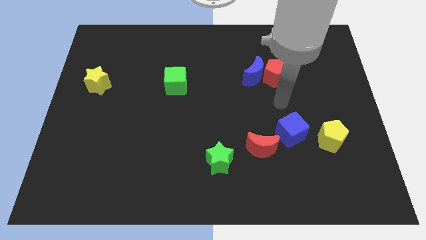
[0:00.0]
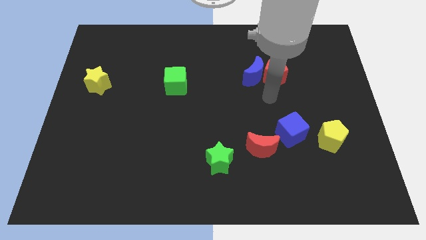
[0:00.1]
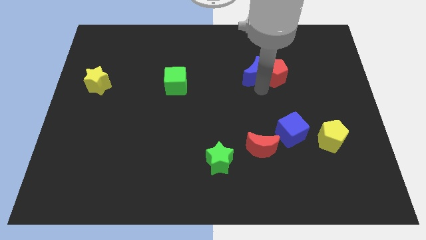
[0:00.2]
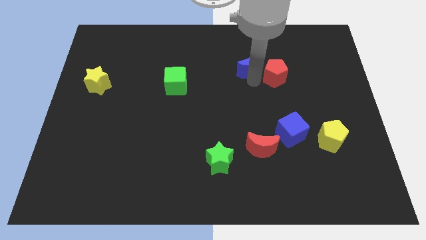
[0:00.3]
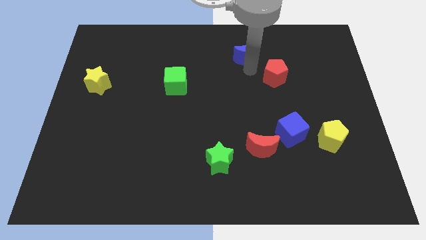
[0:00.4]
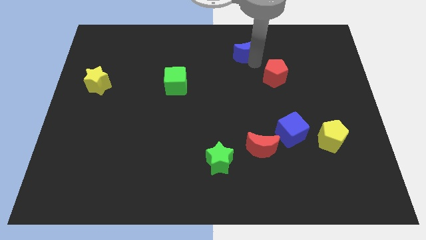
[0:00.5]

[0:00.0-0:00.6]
pull the red pentagon apart from the blue moon

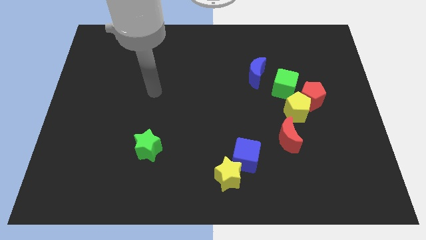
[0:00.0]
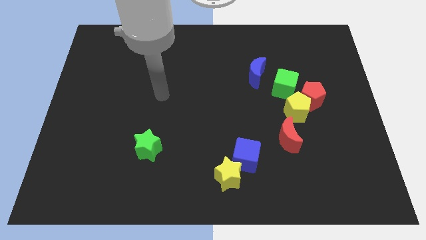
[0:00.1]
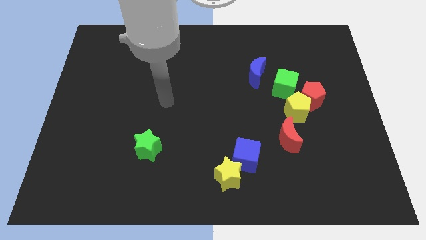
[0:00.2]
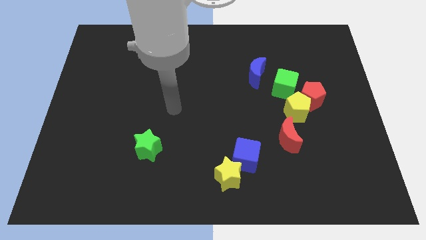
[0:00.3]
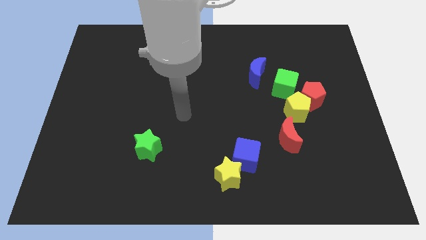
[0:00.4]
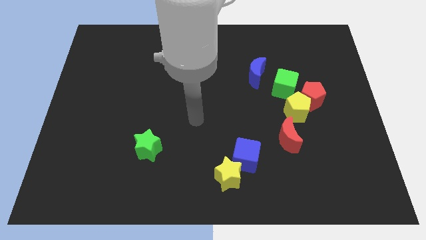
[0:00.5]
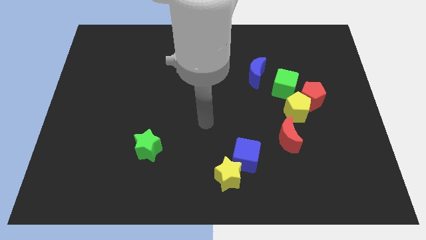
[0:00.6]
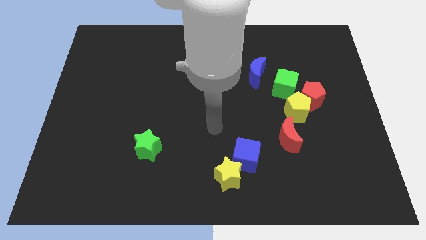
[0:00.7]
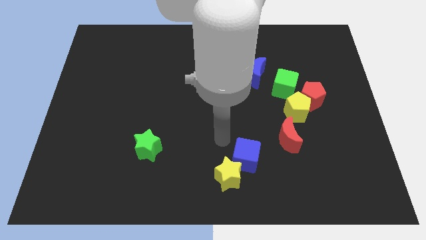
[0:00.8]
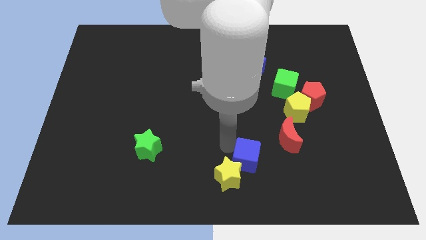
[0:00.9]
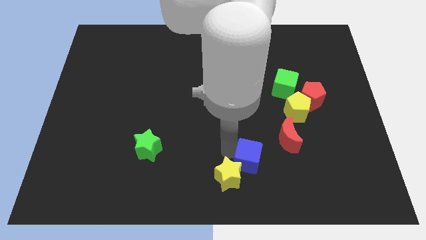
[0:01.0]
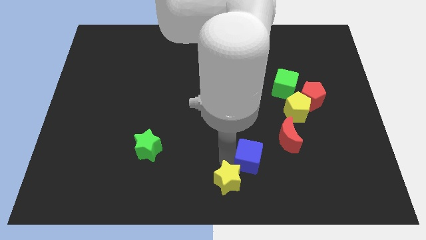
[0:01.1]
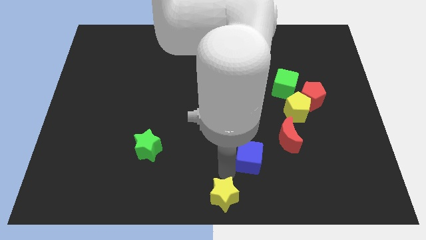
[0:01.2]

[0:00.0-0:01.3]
separate the blue cube from the yellow star

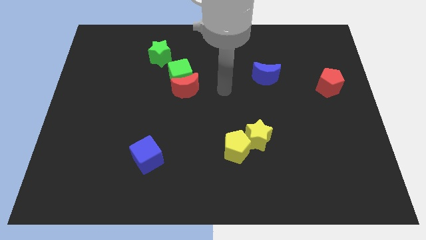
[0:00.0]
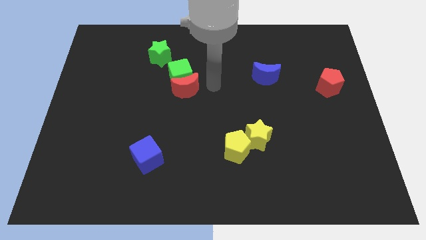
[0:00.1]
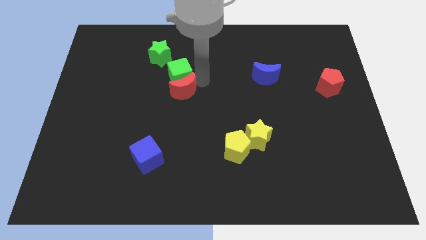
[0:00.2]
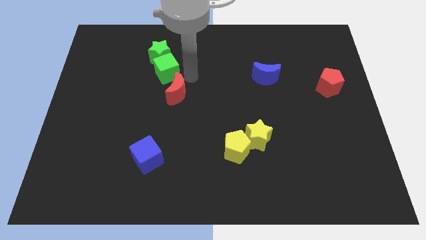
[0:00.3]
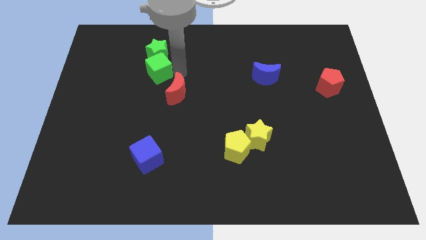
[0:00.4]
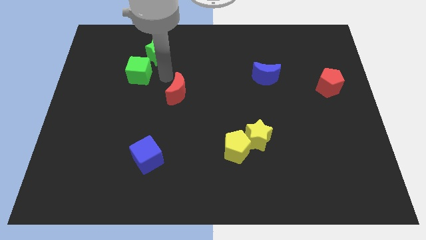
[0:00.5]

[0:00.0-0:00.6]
separate the red moon from the green cube

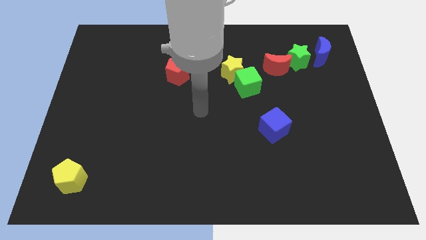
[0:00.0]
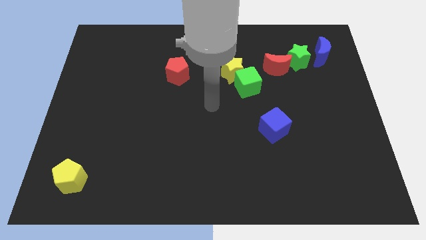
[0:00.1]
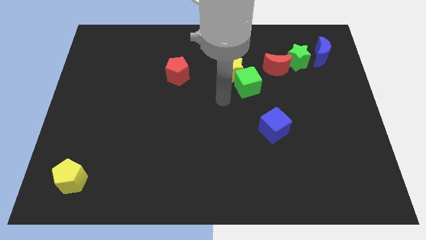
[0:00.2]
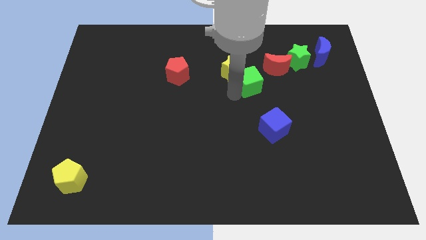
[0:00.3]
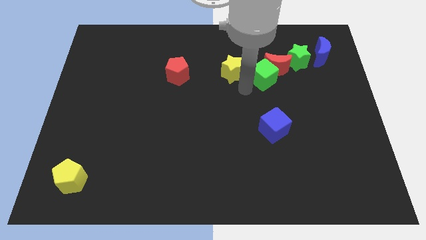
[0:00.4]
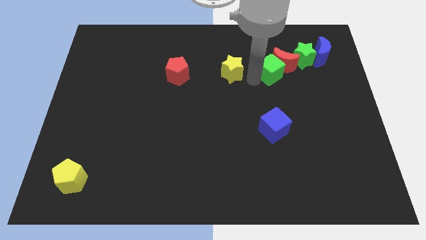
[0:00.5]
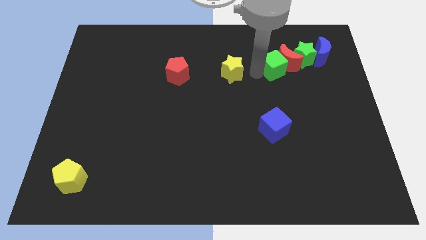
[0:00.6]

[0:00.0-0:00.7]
move the yellow star away from the green cube

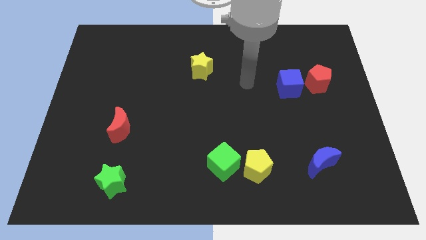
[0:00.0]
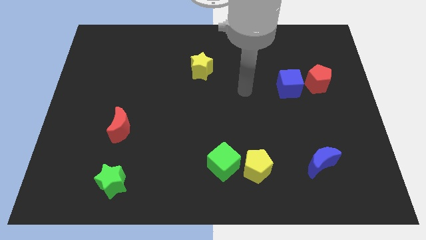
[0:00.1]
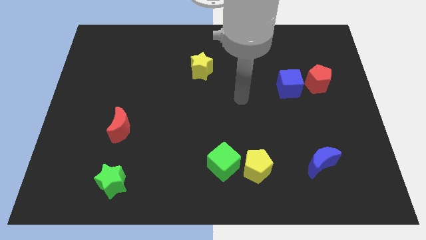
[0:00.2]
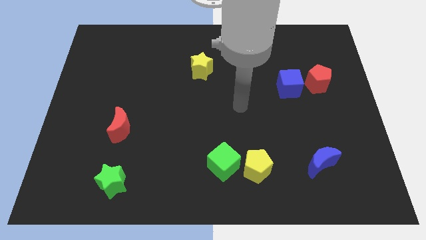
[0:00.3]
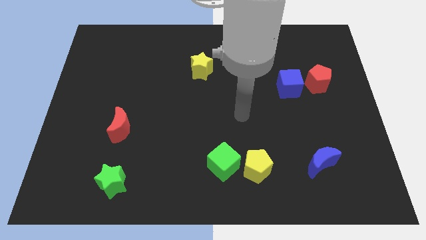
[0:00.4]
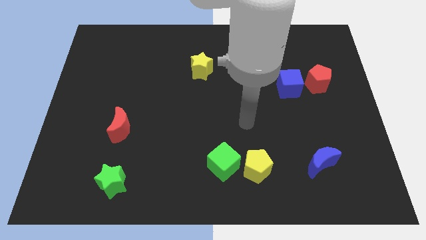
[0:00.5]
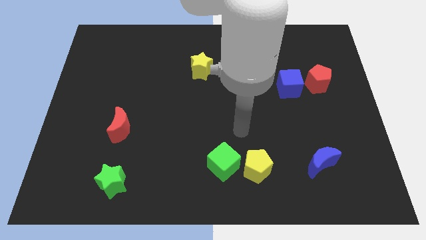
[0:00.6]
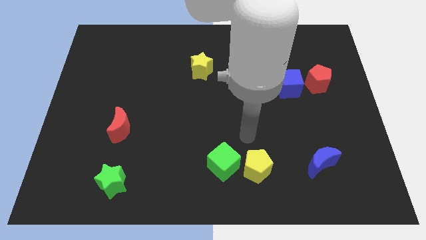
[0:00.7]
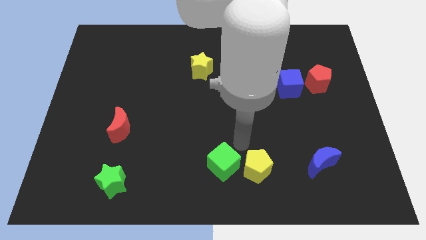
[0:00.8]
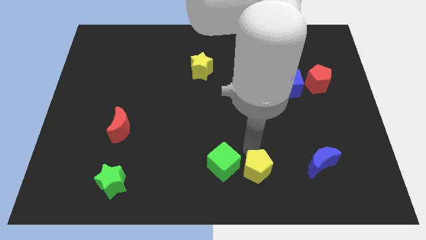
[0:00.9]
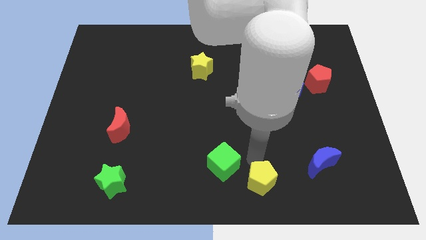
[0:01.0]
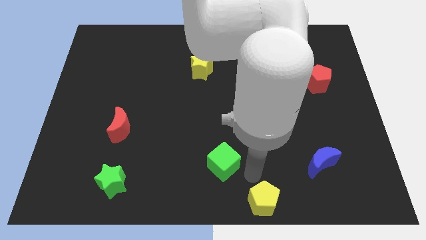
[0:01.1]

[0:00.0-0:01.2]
move the green cube away from the yellow pentagon

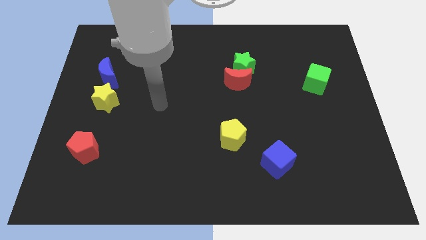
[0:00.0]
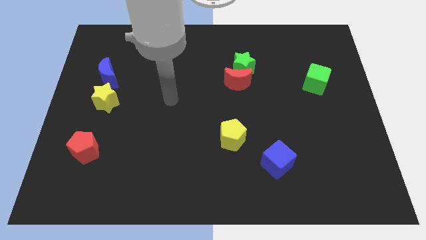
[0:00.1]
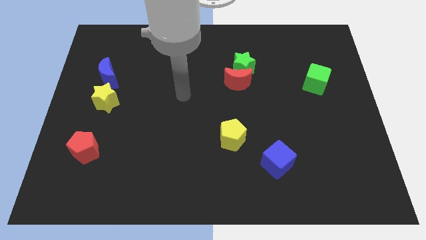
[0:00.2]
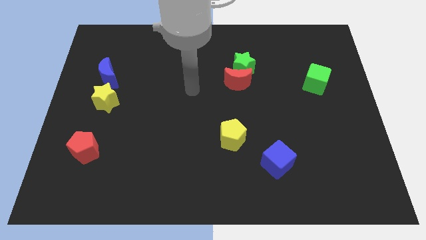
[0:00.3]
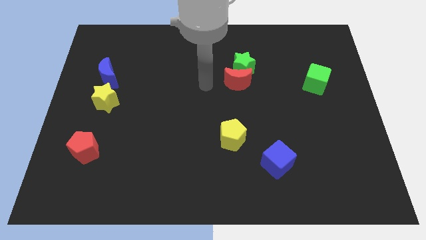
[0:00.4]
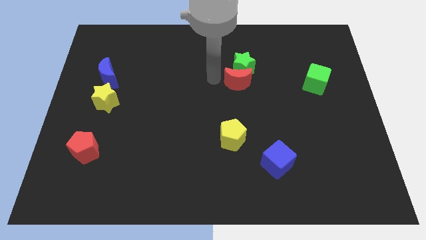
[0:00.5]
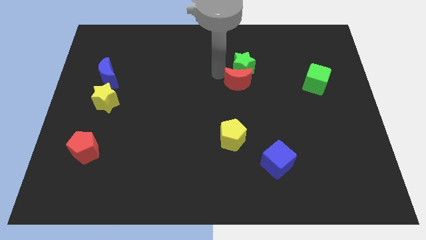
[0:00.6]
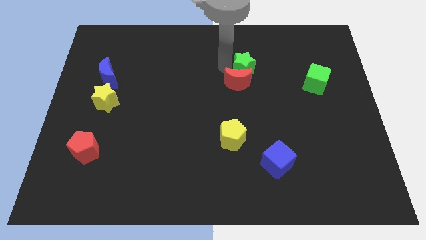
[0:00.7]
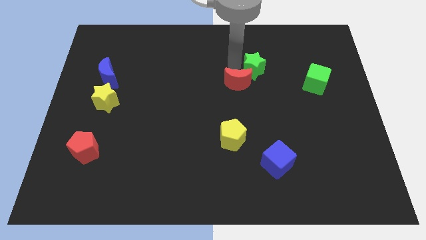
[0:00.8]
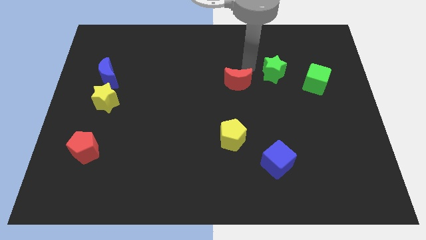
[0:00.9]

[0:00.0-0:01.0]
move the red moon away from the green star

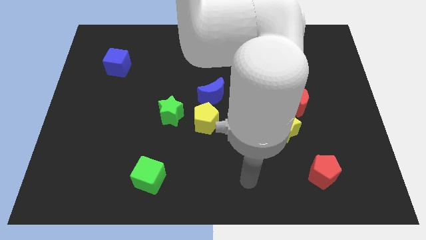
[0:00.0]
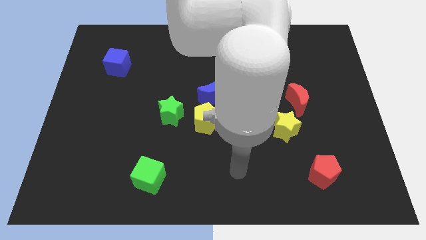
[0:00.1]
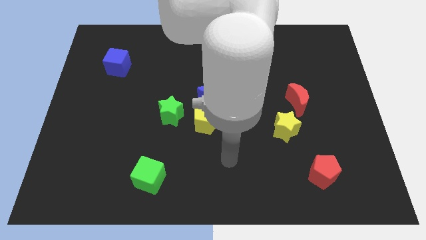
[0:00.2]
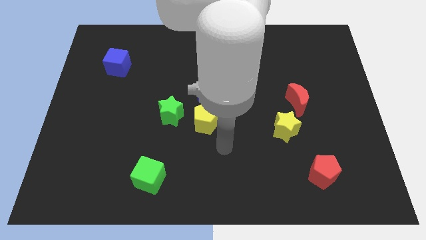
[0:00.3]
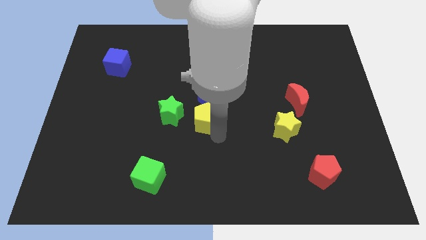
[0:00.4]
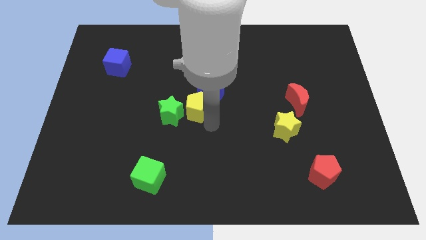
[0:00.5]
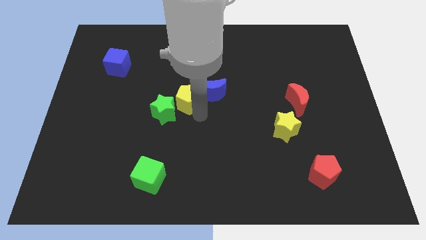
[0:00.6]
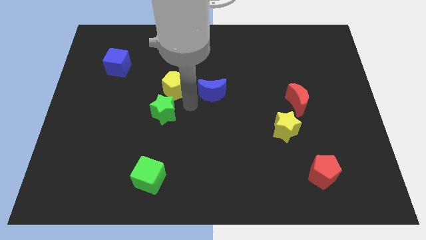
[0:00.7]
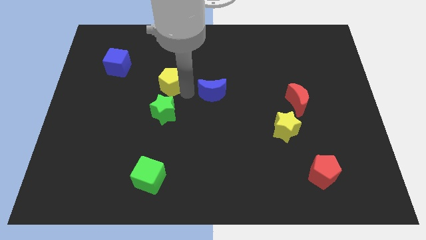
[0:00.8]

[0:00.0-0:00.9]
move the blue moon away from the yellow pentagon

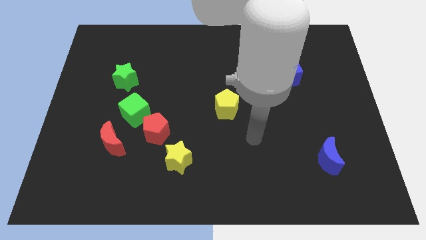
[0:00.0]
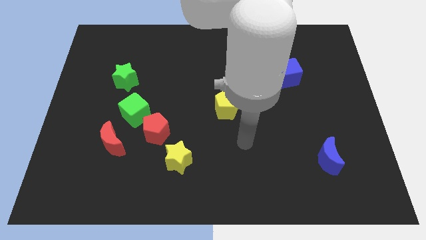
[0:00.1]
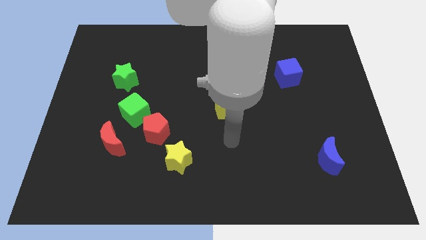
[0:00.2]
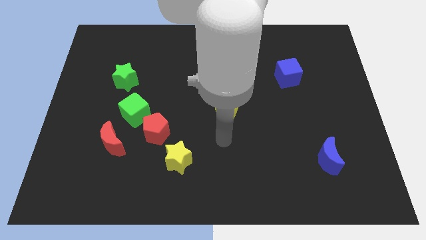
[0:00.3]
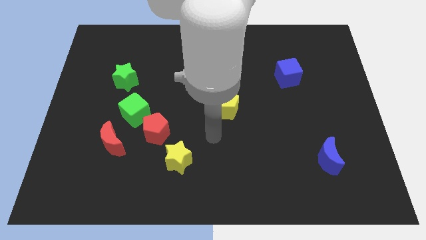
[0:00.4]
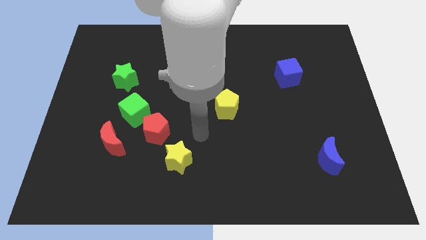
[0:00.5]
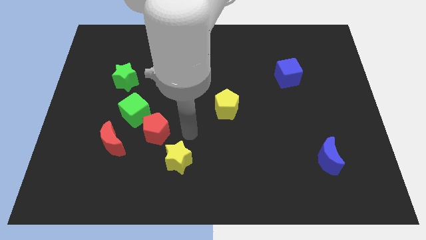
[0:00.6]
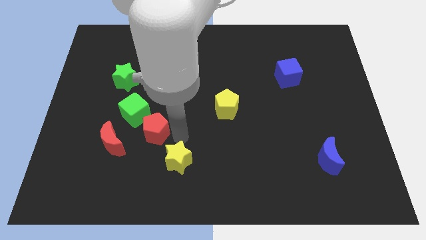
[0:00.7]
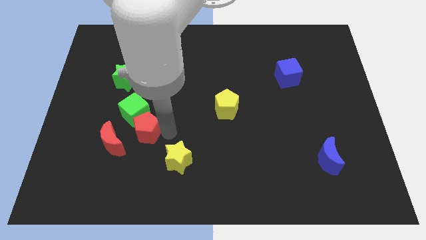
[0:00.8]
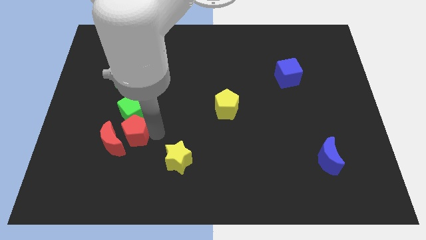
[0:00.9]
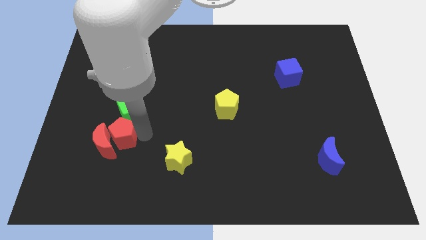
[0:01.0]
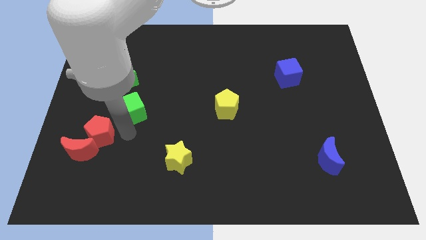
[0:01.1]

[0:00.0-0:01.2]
move the green cube away from the red pentagon and red moon

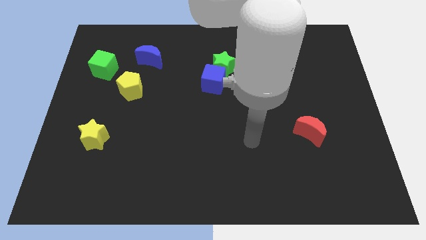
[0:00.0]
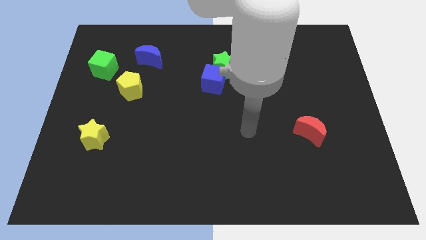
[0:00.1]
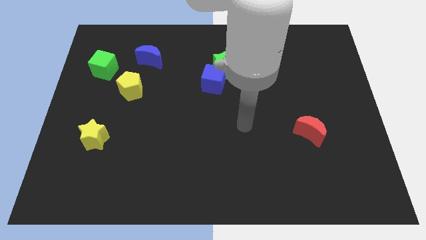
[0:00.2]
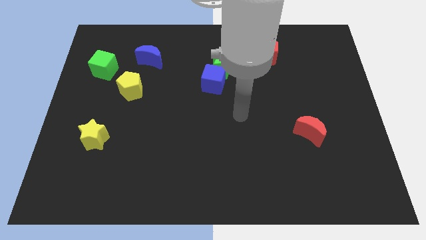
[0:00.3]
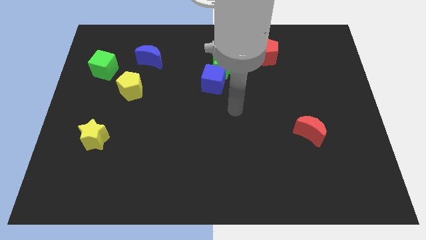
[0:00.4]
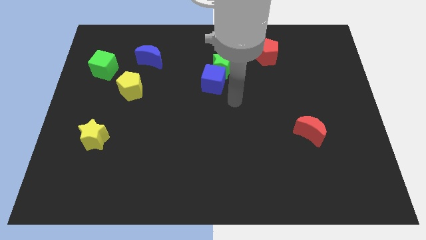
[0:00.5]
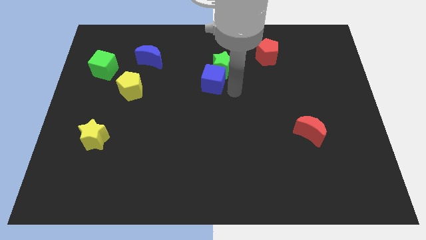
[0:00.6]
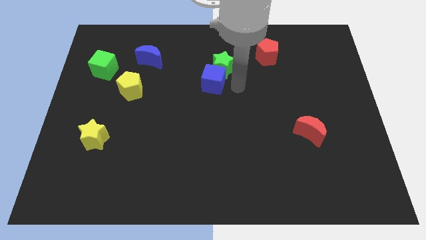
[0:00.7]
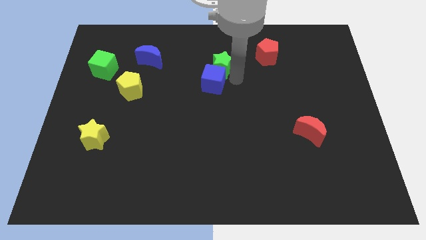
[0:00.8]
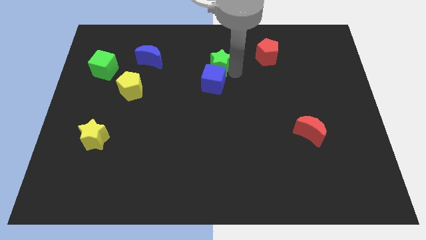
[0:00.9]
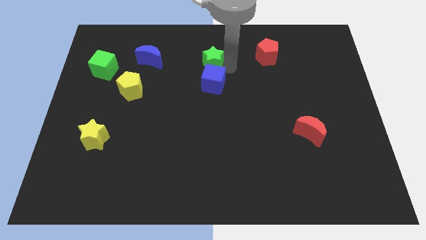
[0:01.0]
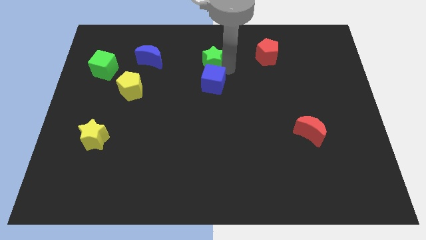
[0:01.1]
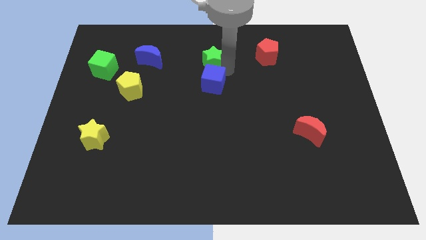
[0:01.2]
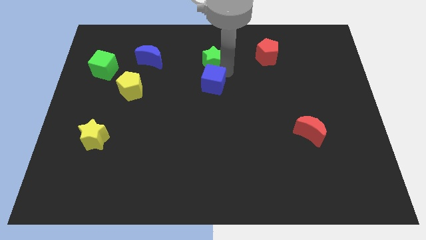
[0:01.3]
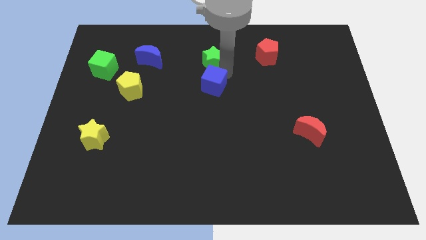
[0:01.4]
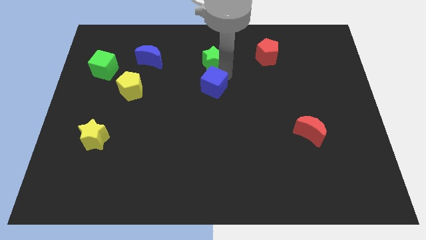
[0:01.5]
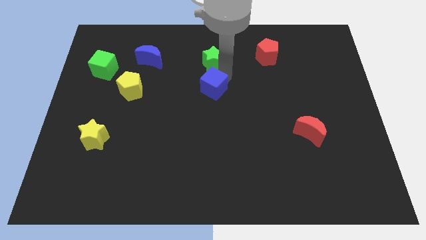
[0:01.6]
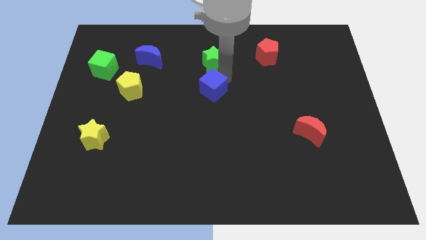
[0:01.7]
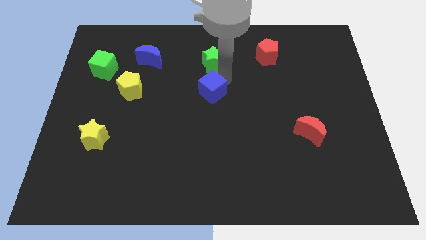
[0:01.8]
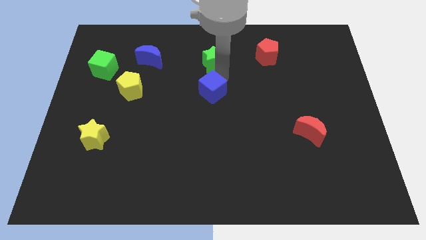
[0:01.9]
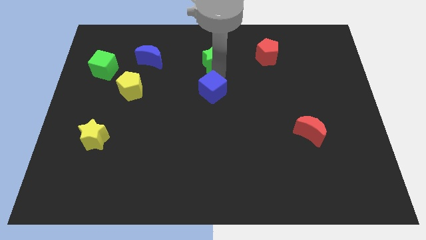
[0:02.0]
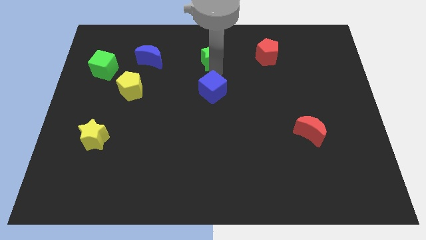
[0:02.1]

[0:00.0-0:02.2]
move the blue cube away from the green star
